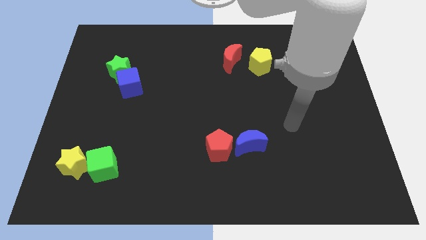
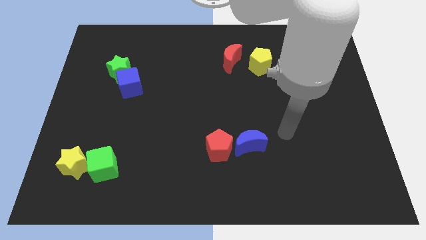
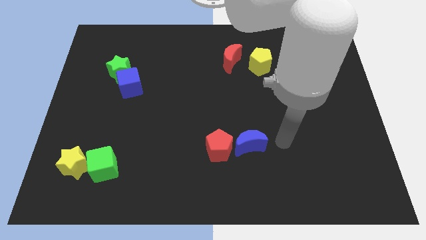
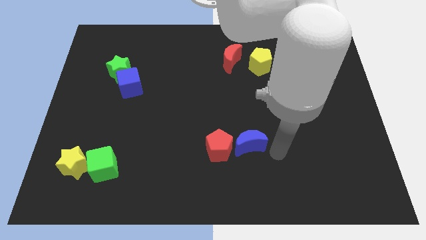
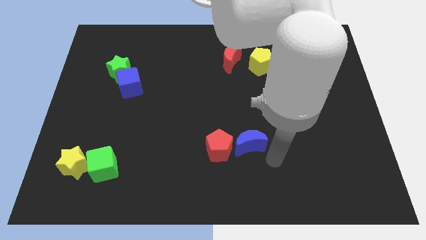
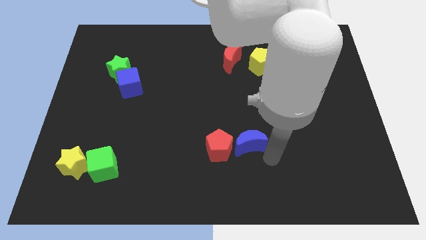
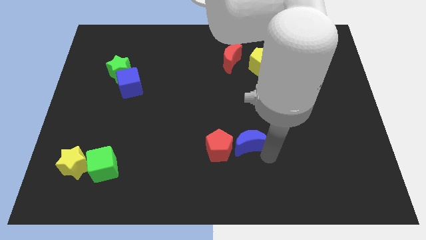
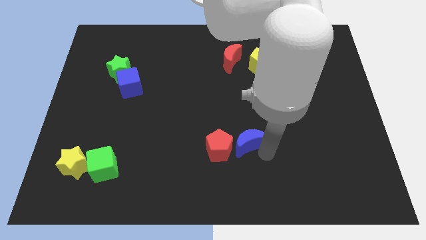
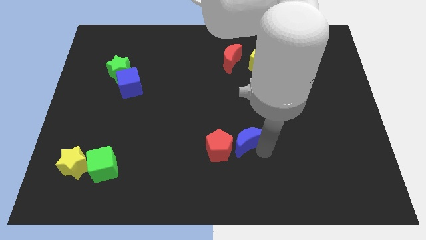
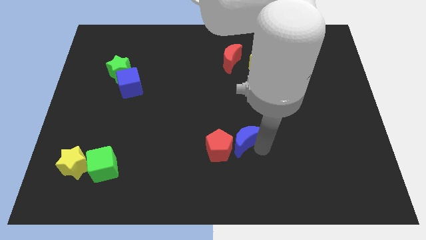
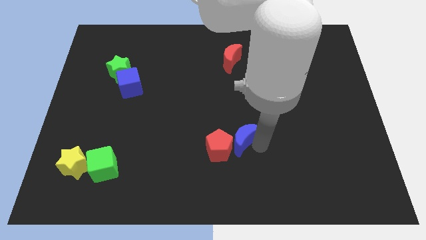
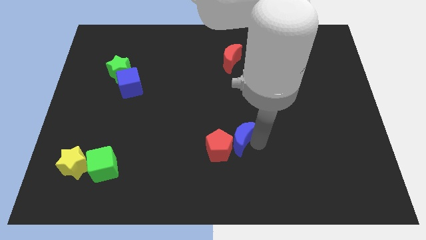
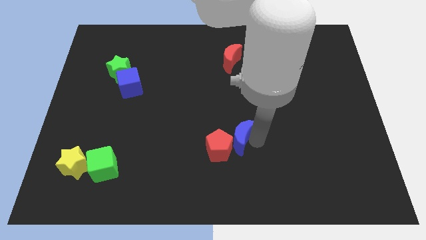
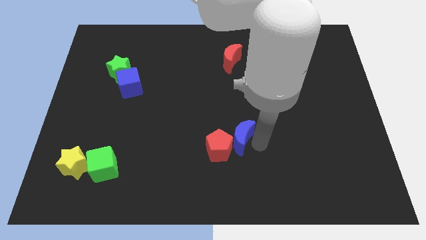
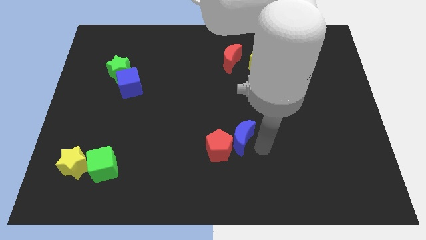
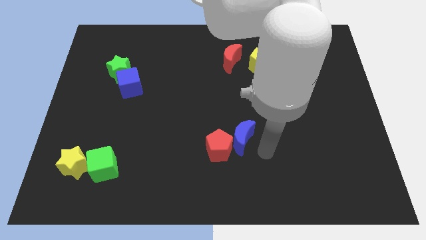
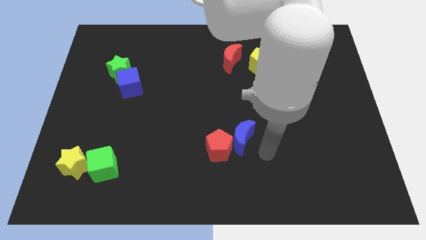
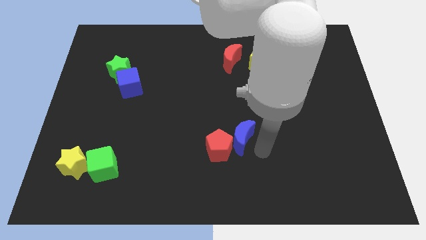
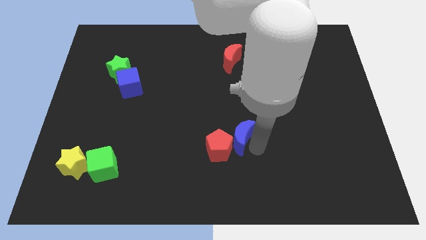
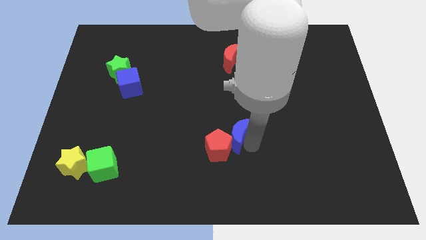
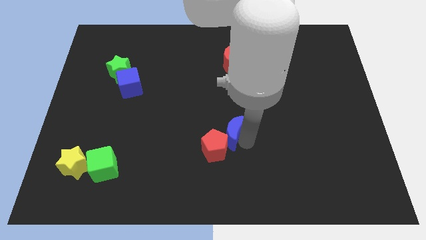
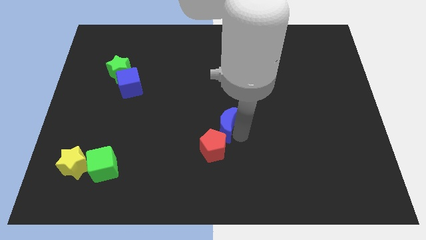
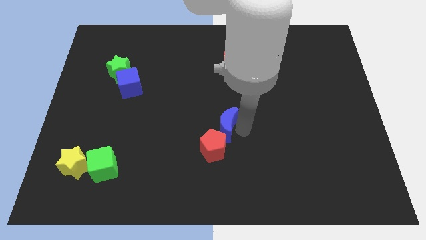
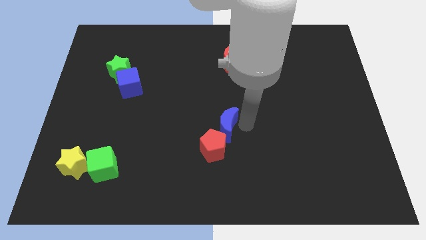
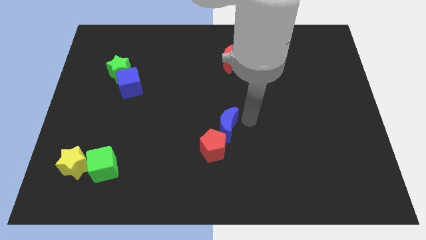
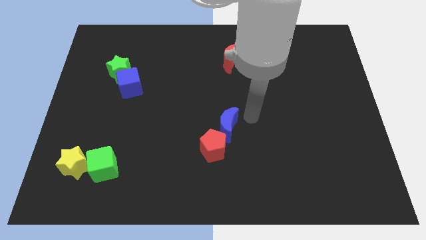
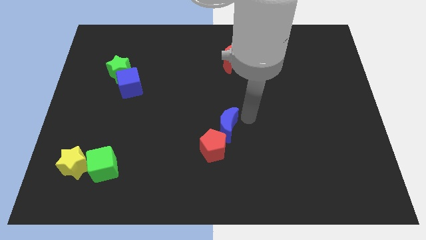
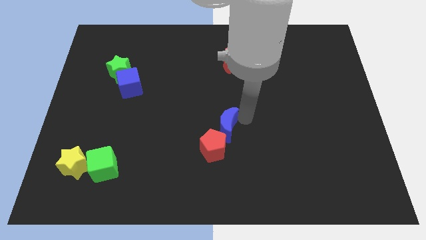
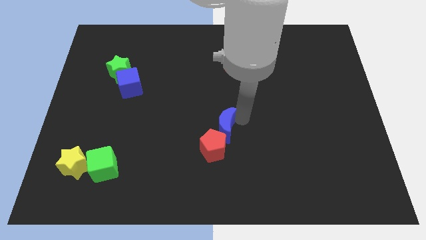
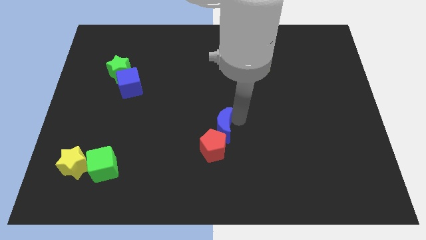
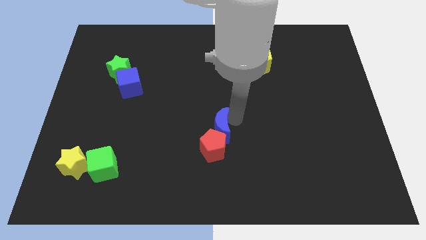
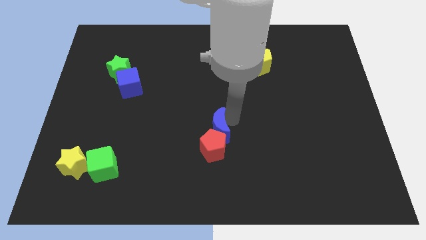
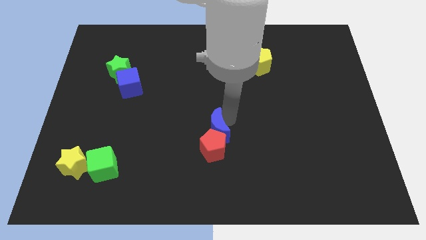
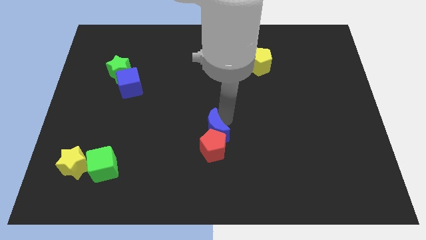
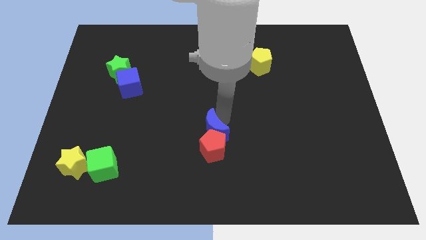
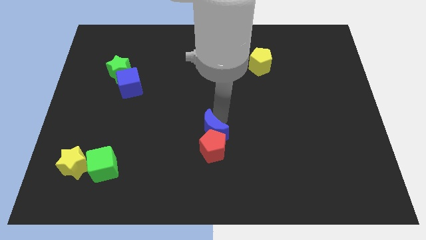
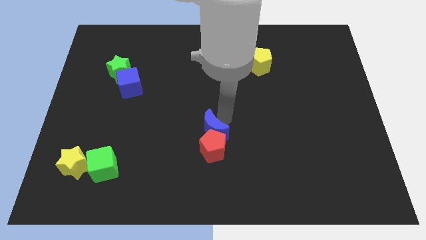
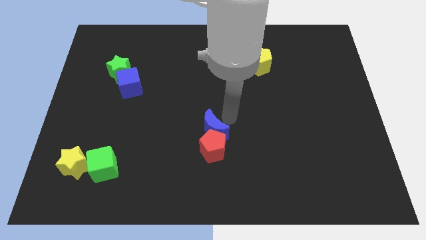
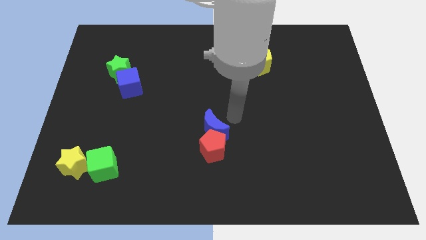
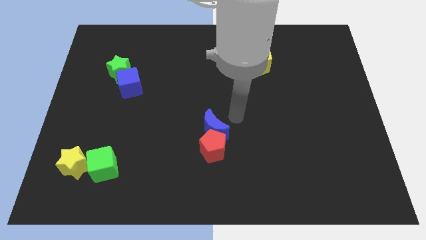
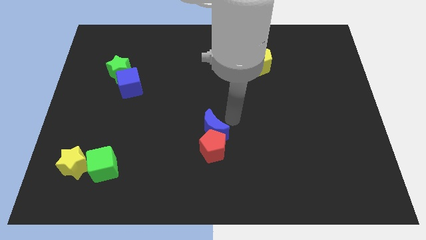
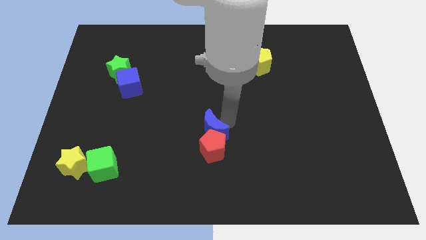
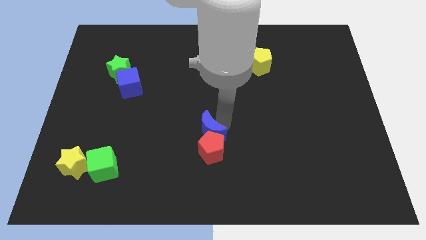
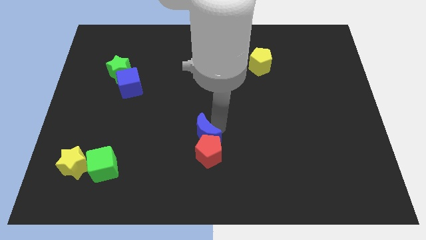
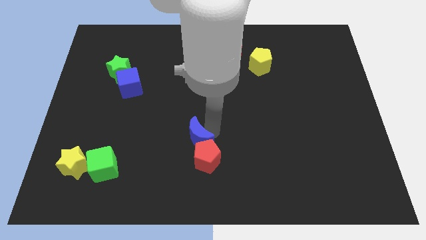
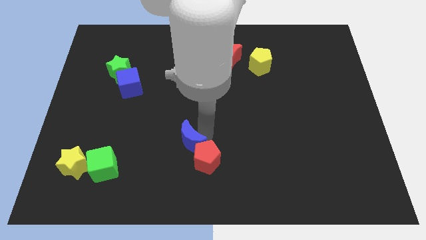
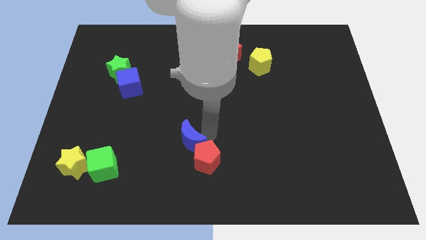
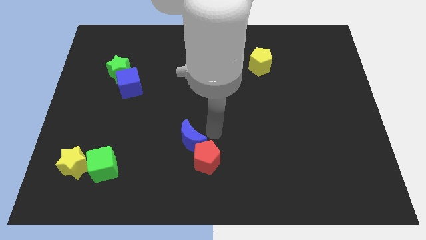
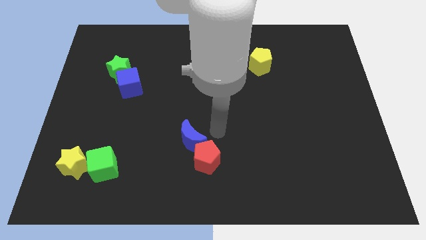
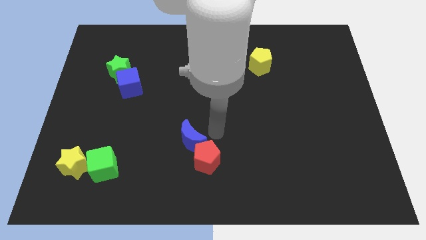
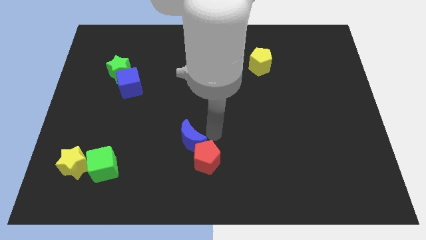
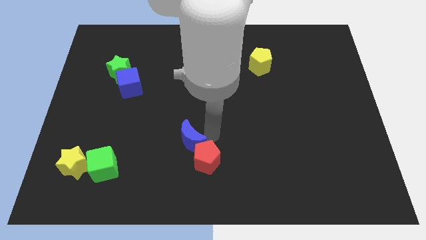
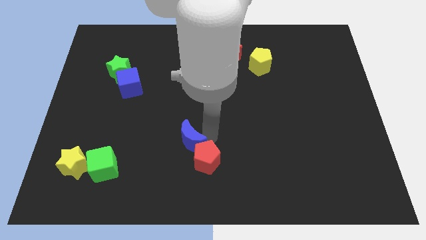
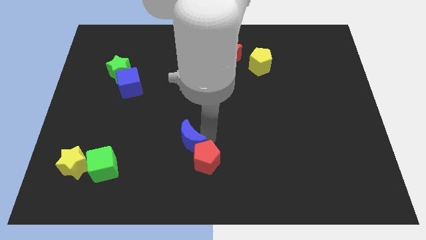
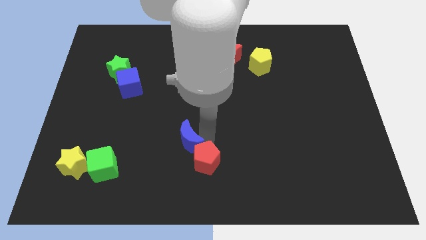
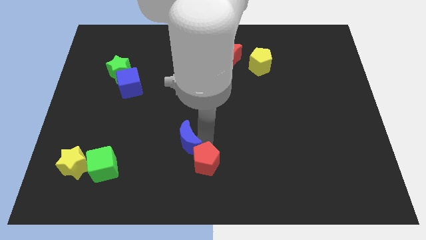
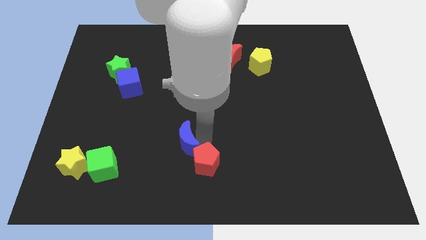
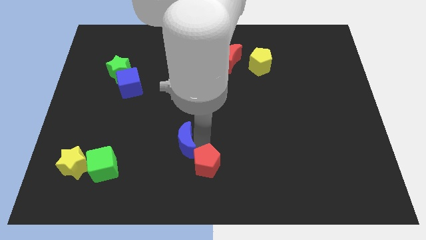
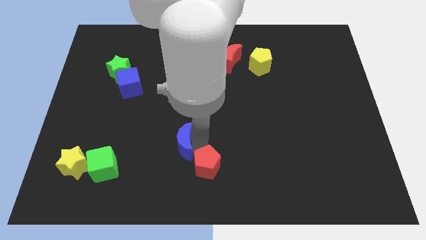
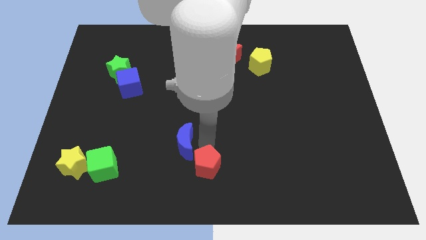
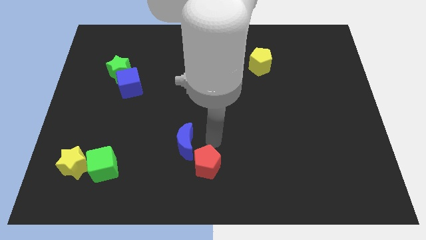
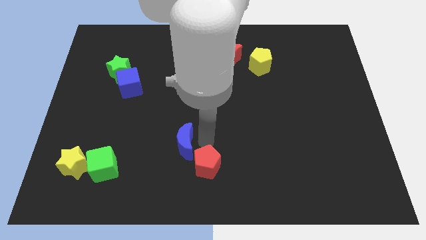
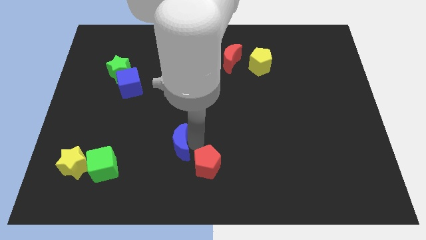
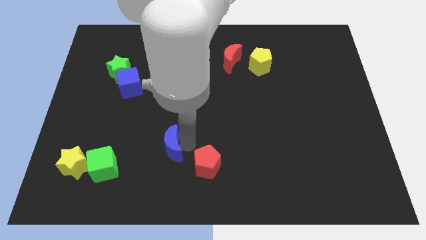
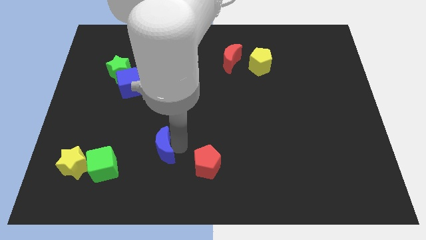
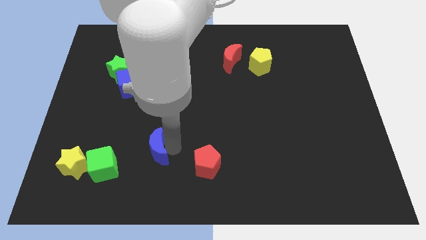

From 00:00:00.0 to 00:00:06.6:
push the blue moon left

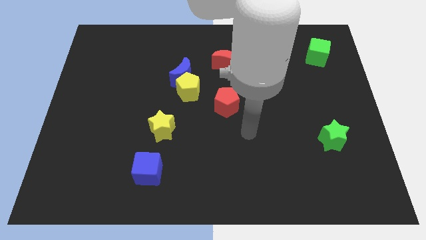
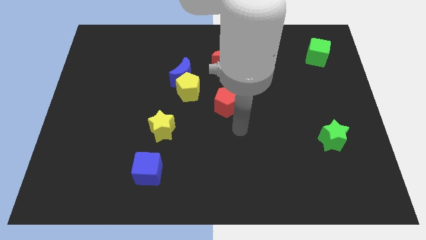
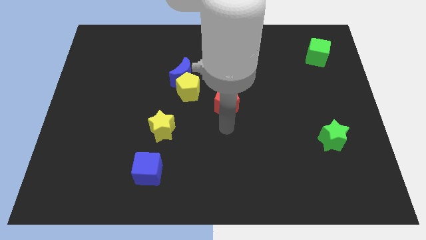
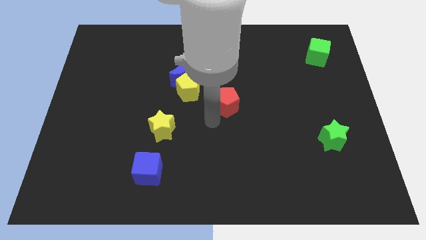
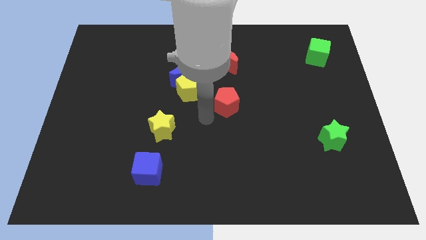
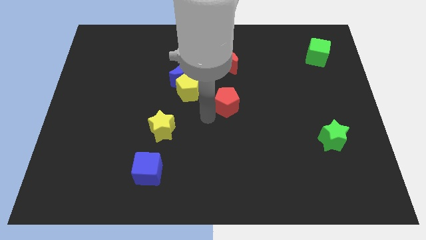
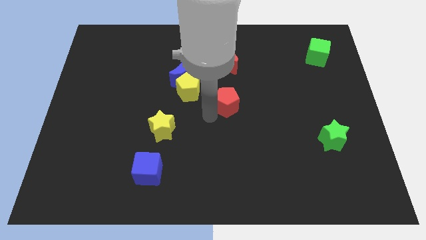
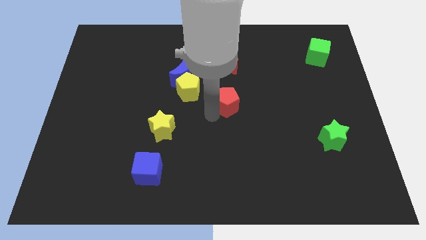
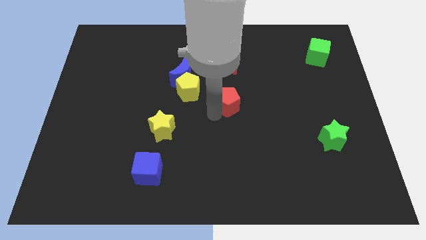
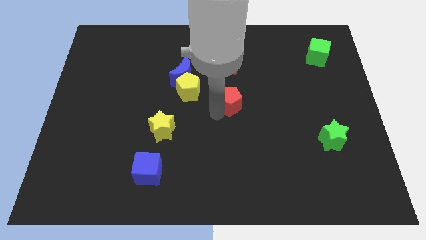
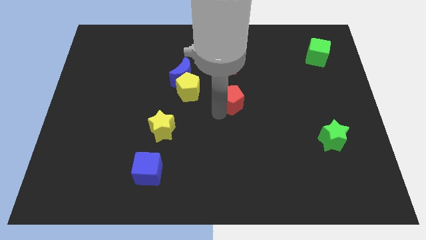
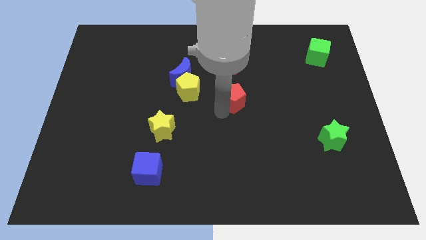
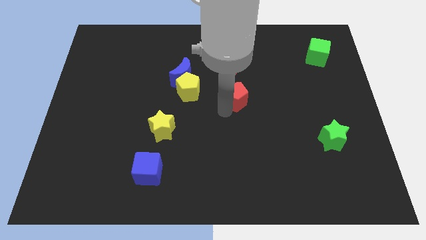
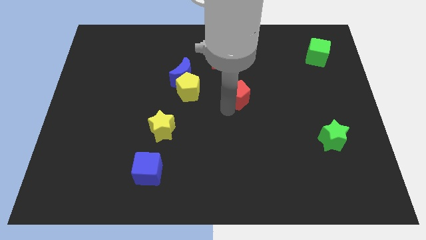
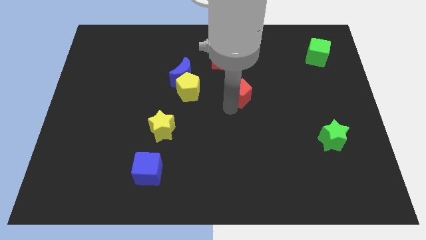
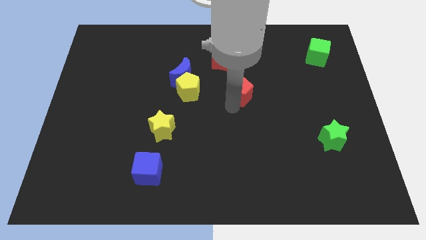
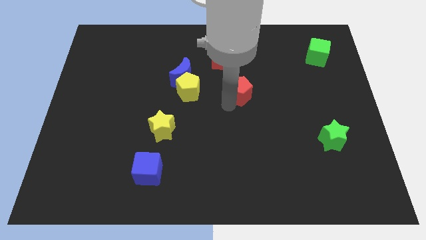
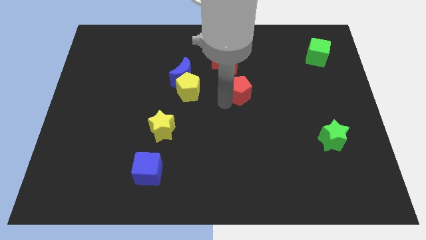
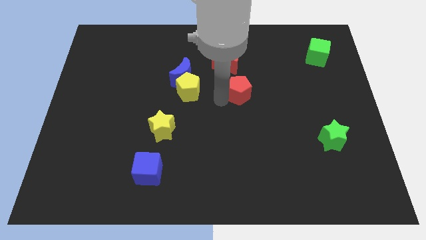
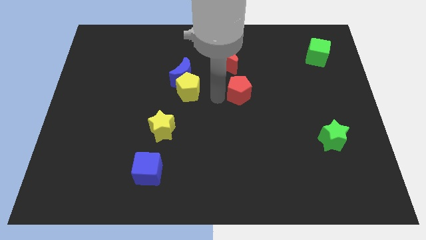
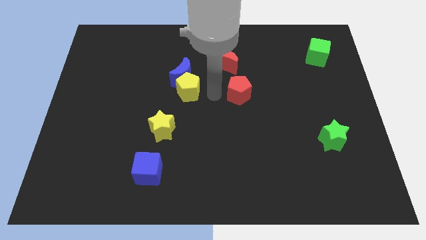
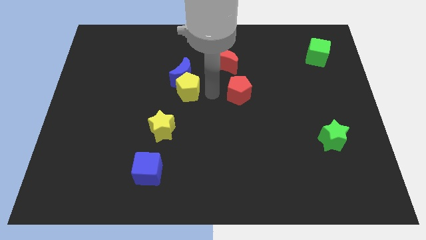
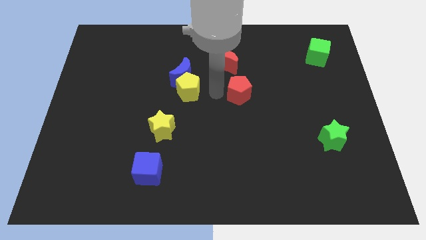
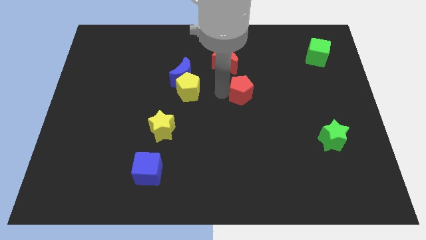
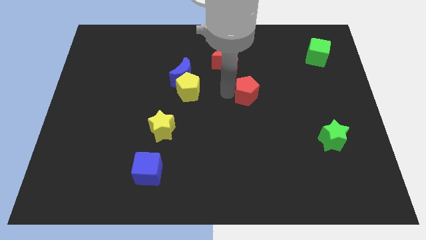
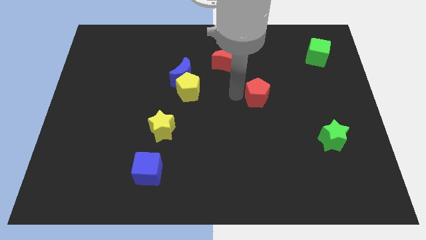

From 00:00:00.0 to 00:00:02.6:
slide the red pentagon diagonally upwards and to the right slightly
